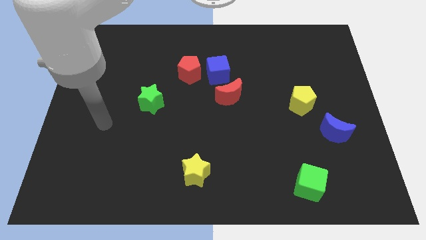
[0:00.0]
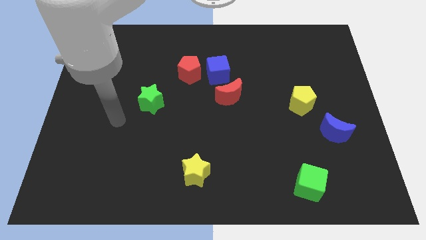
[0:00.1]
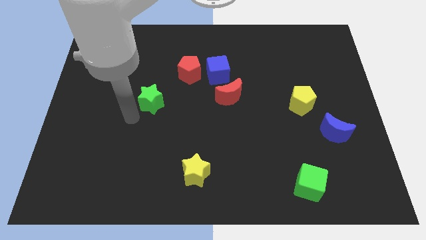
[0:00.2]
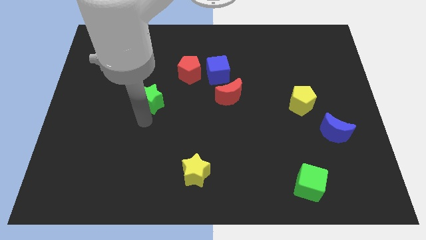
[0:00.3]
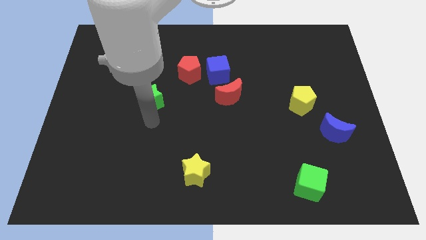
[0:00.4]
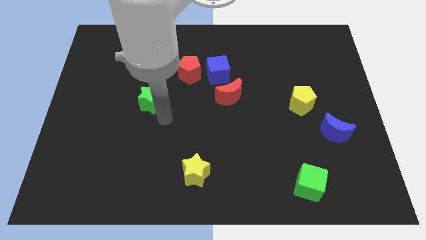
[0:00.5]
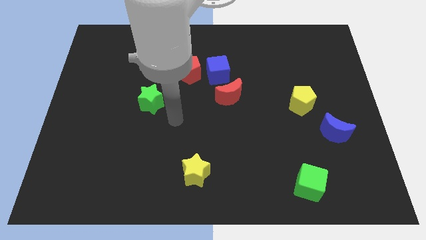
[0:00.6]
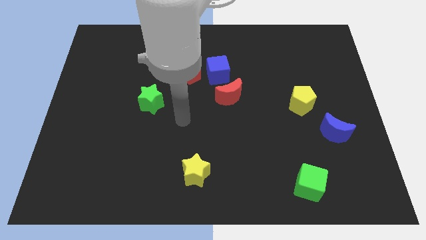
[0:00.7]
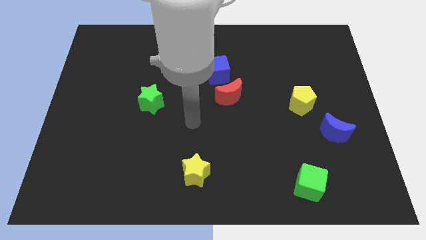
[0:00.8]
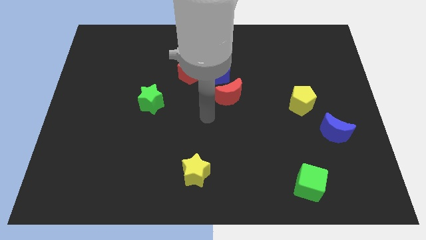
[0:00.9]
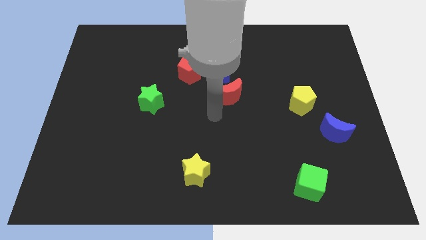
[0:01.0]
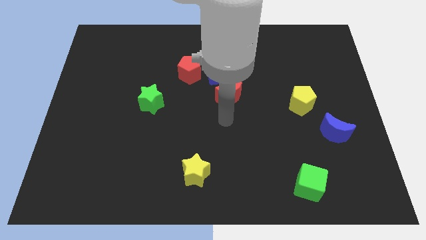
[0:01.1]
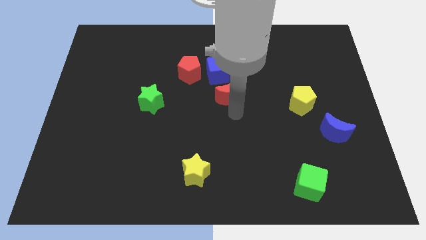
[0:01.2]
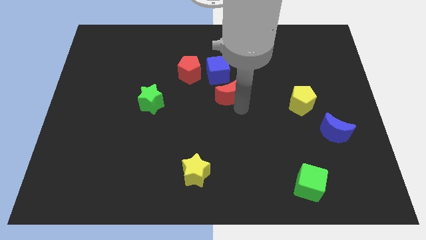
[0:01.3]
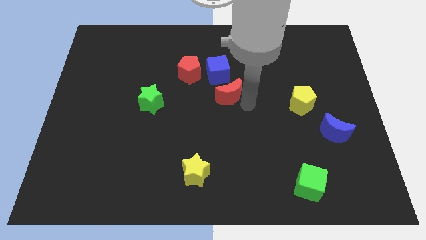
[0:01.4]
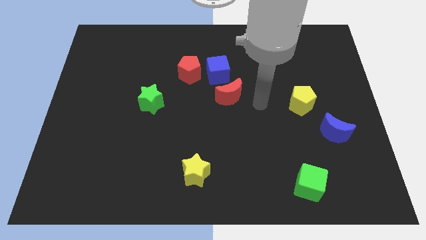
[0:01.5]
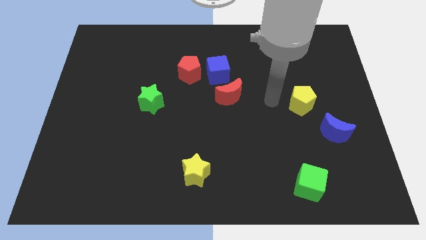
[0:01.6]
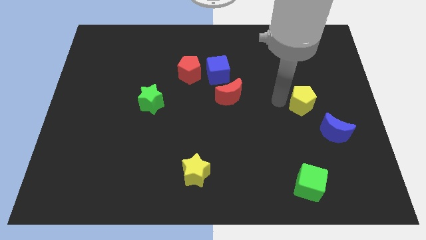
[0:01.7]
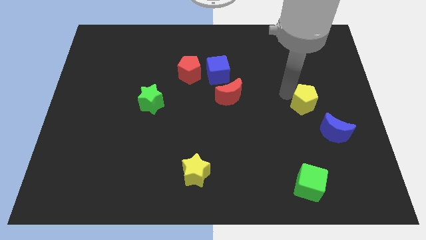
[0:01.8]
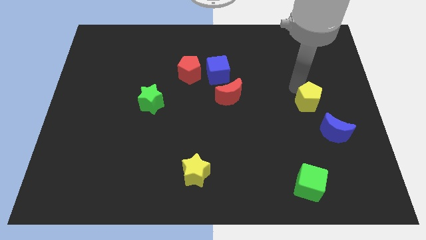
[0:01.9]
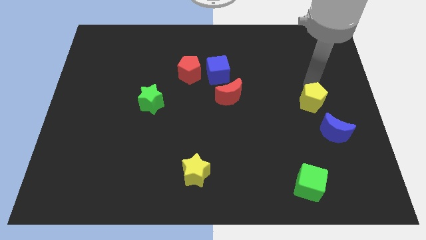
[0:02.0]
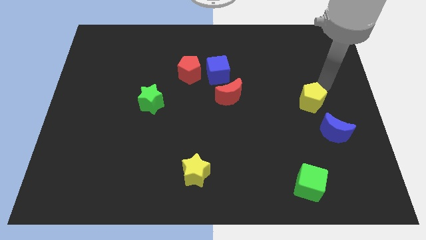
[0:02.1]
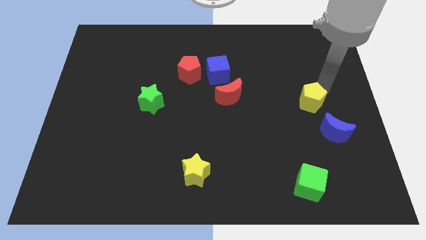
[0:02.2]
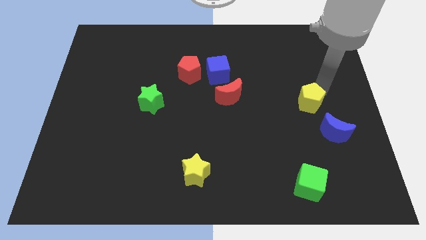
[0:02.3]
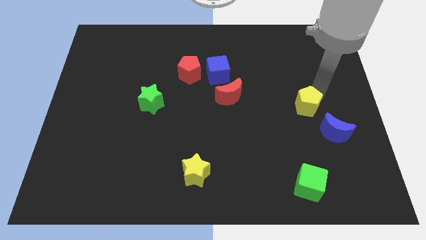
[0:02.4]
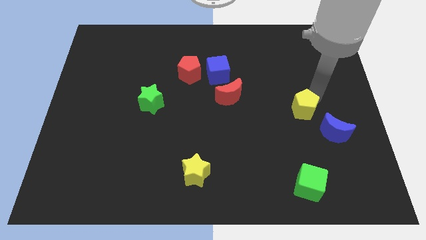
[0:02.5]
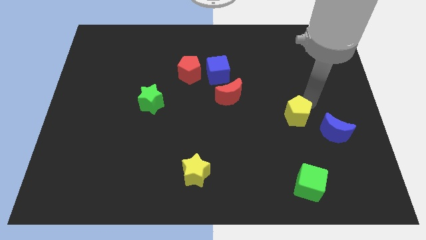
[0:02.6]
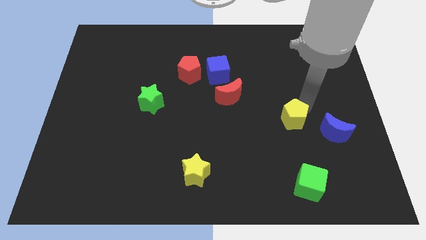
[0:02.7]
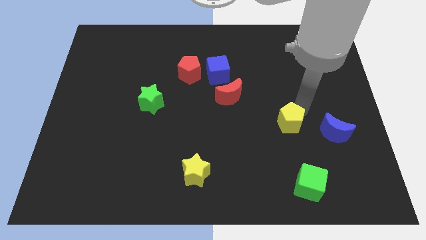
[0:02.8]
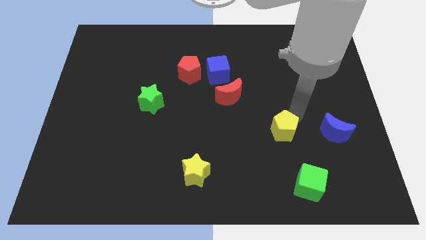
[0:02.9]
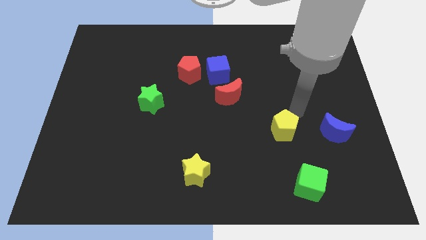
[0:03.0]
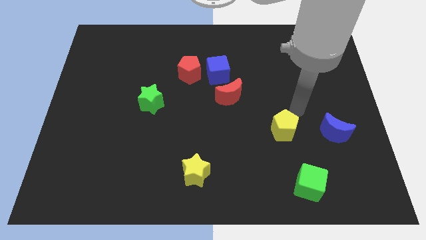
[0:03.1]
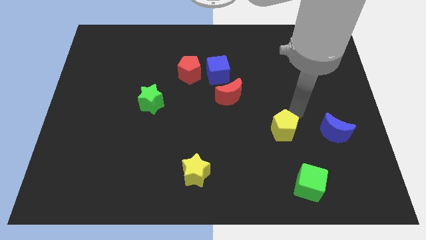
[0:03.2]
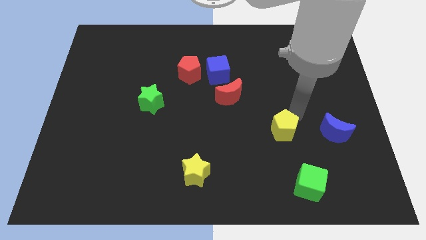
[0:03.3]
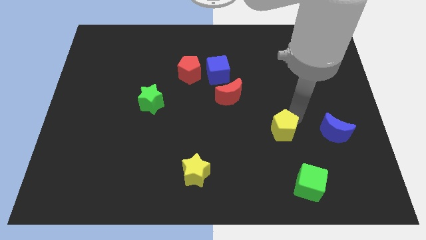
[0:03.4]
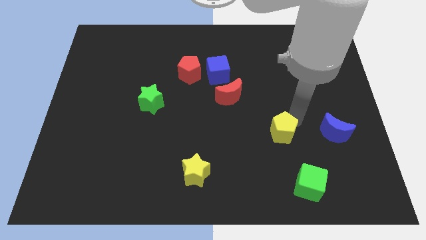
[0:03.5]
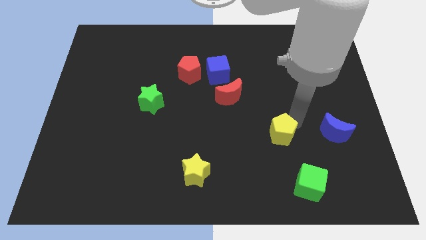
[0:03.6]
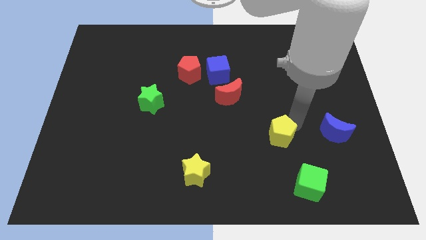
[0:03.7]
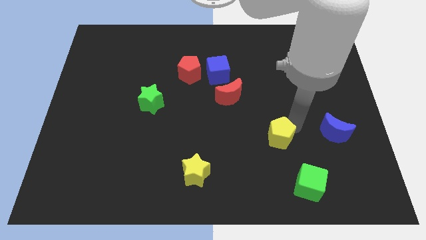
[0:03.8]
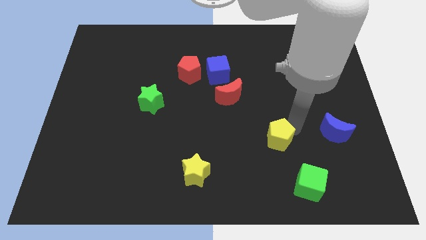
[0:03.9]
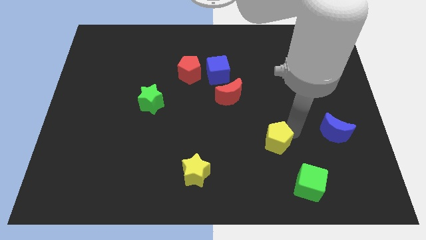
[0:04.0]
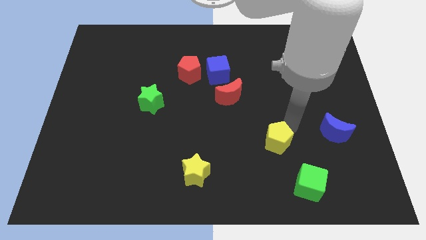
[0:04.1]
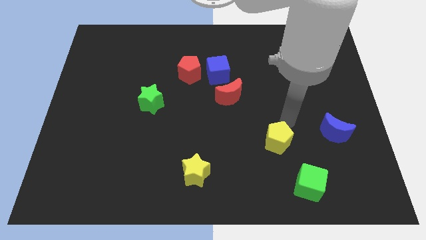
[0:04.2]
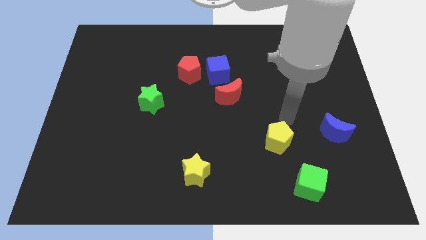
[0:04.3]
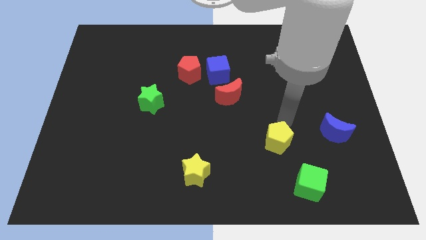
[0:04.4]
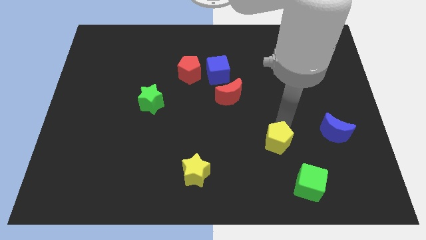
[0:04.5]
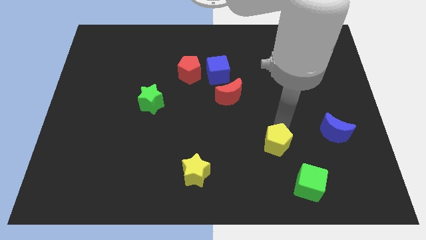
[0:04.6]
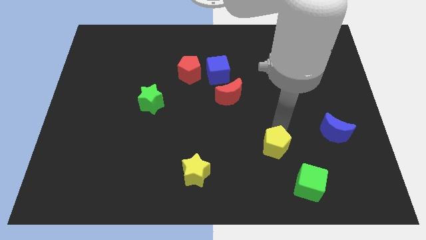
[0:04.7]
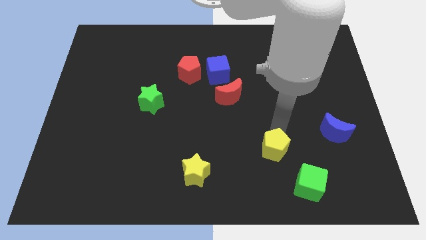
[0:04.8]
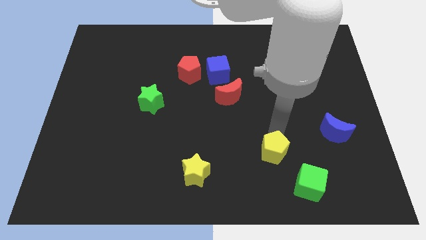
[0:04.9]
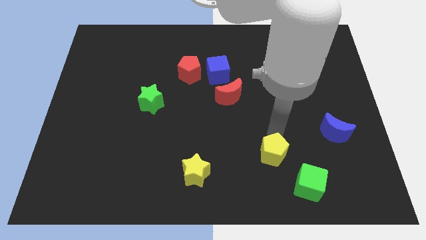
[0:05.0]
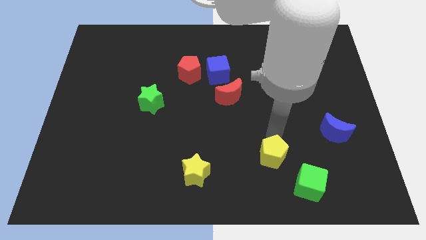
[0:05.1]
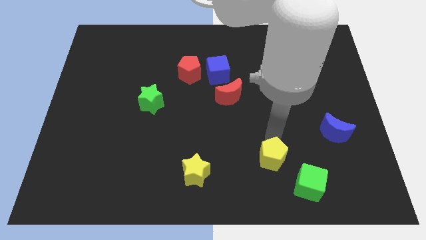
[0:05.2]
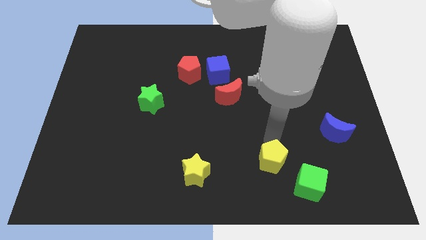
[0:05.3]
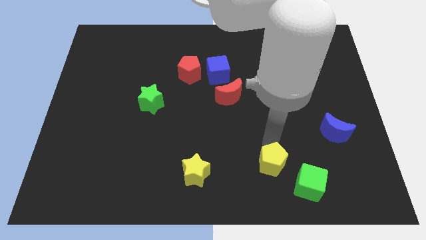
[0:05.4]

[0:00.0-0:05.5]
put the yellow pentagon to the left side of the green cube

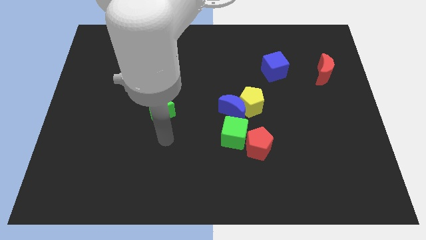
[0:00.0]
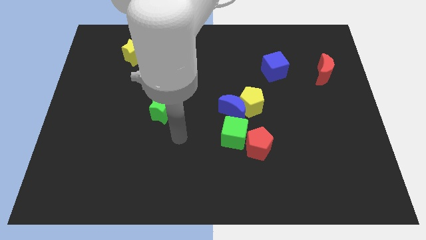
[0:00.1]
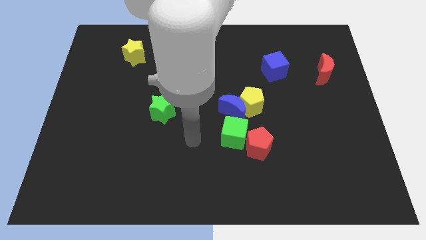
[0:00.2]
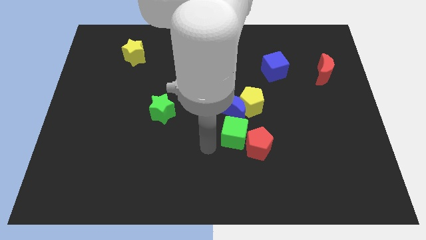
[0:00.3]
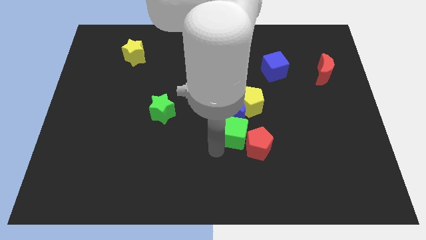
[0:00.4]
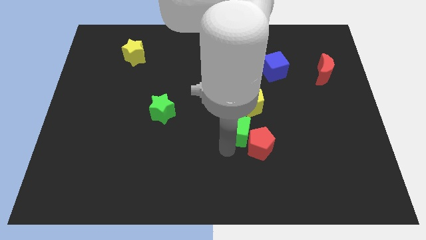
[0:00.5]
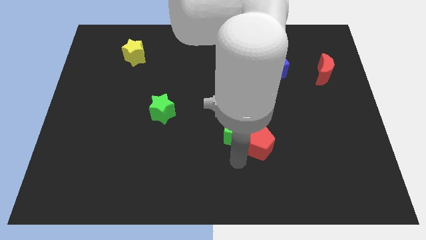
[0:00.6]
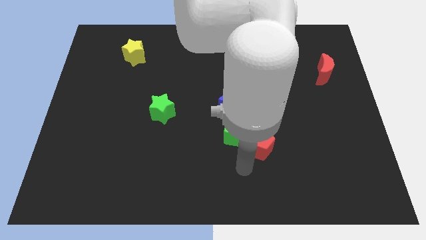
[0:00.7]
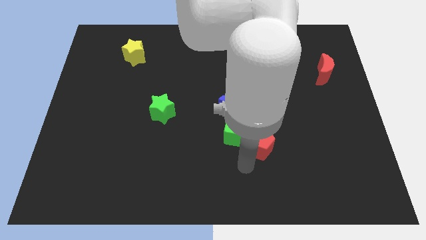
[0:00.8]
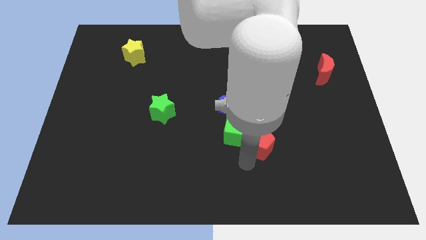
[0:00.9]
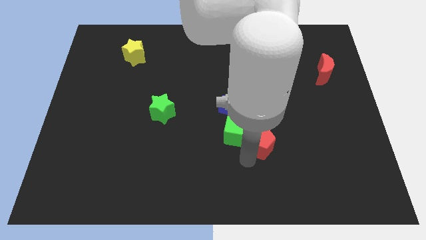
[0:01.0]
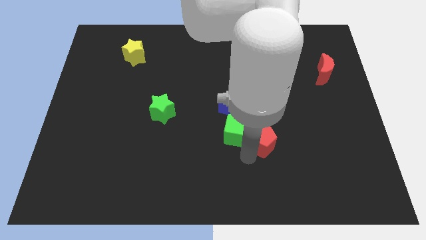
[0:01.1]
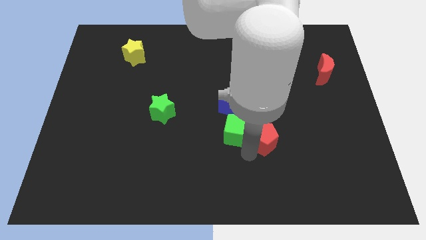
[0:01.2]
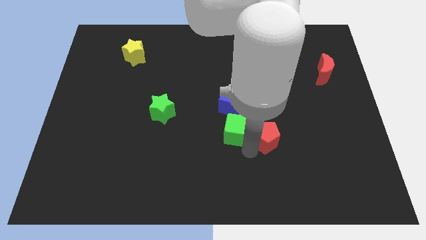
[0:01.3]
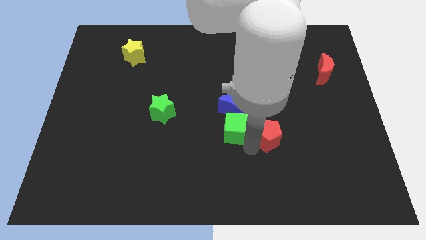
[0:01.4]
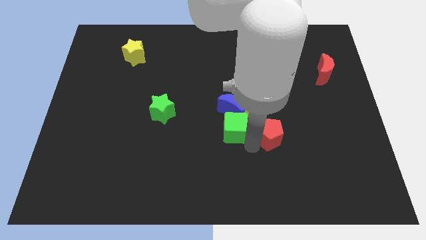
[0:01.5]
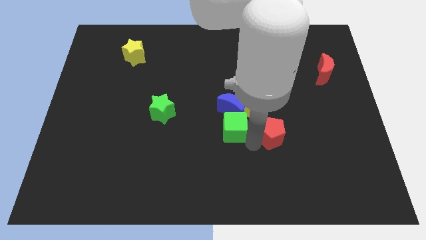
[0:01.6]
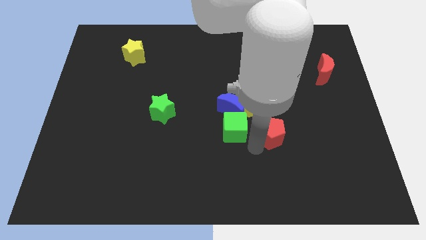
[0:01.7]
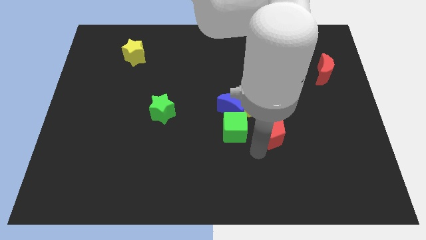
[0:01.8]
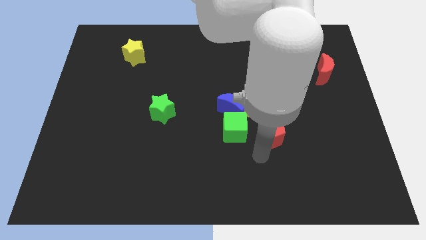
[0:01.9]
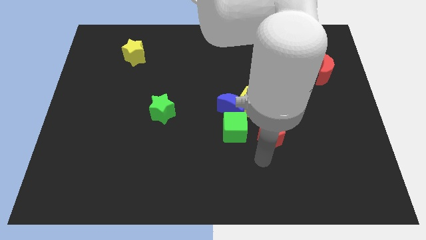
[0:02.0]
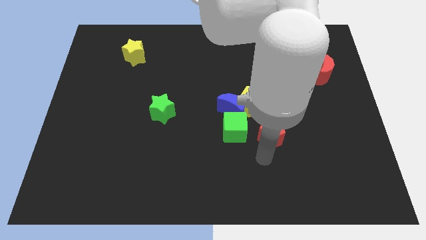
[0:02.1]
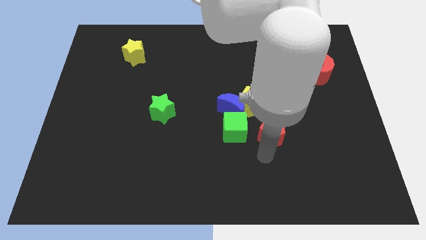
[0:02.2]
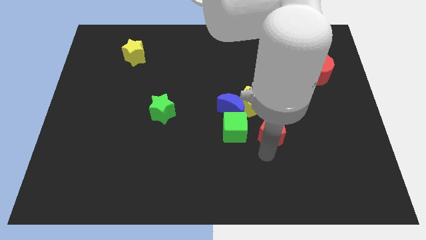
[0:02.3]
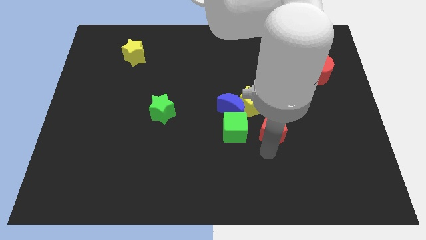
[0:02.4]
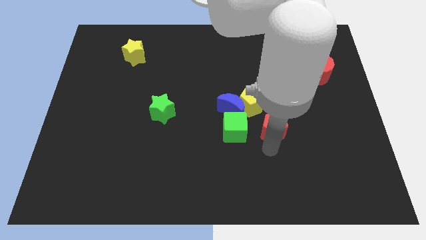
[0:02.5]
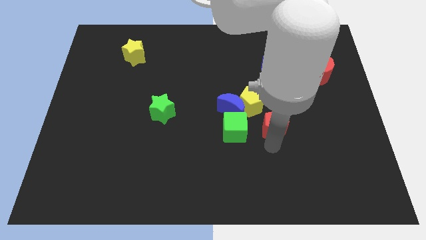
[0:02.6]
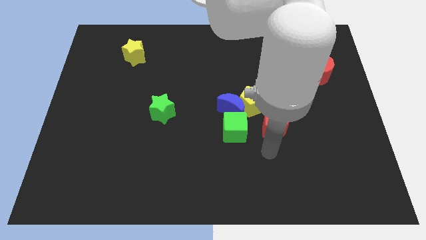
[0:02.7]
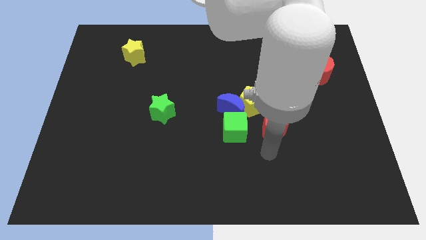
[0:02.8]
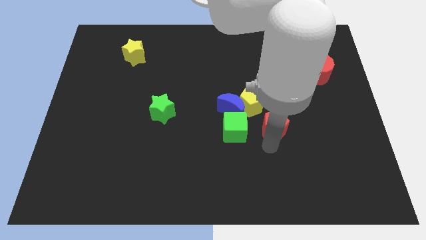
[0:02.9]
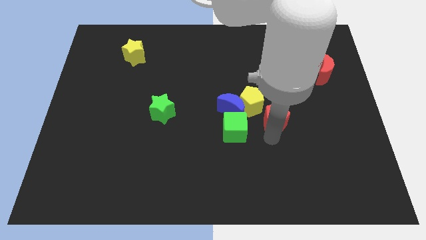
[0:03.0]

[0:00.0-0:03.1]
put the red pentagon to the bottom of the blue cube
